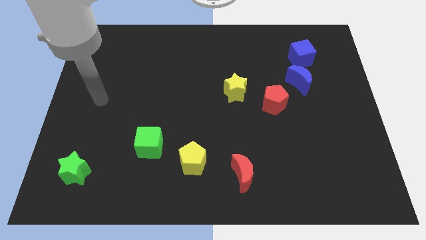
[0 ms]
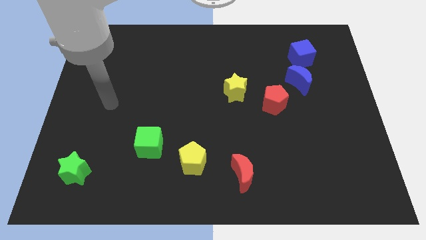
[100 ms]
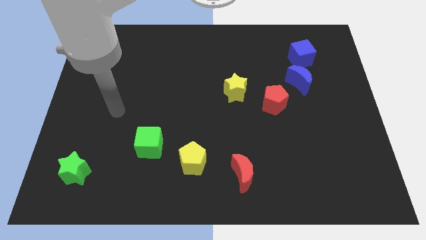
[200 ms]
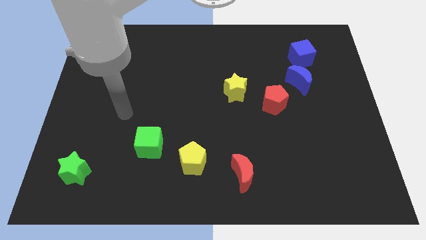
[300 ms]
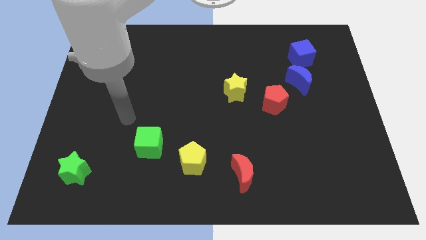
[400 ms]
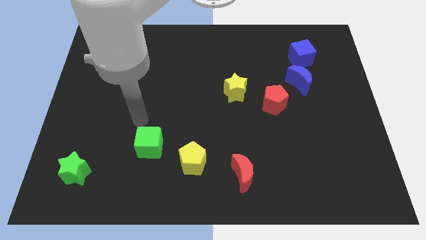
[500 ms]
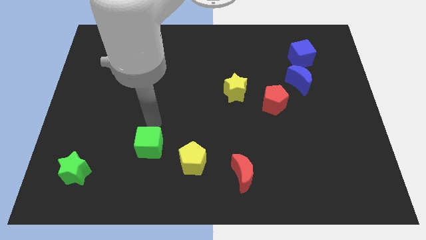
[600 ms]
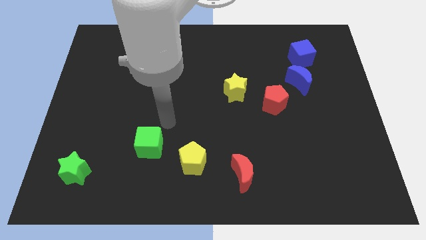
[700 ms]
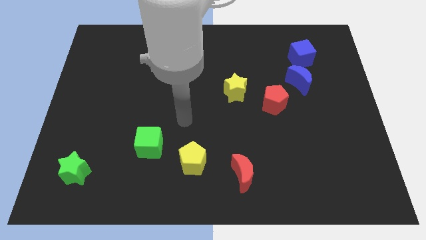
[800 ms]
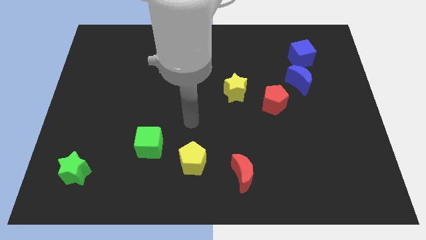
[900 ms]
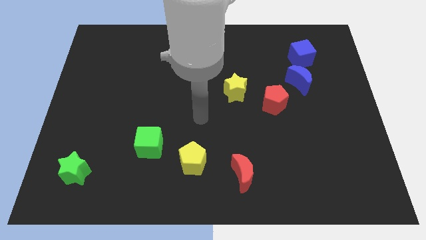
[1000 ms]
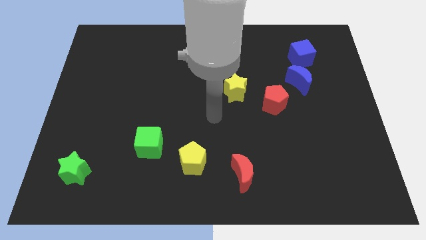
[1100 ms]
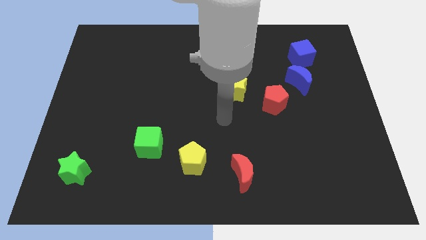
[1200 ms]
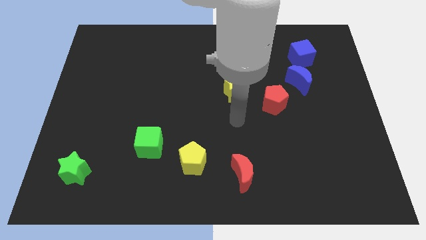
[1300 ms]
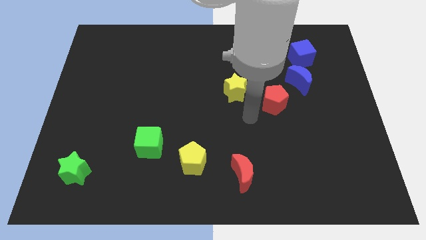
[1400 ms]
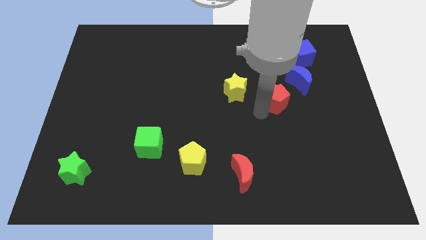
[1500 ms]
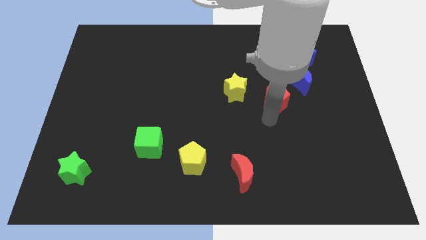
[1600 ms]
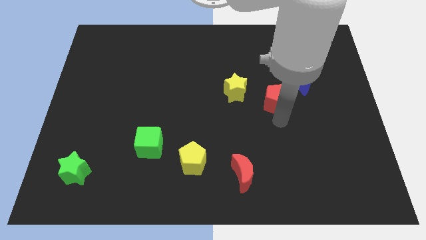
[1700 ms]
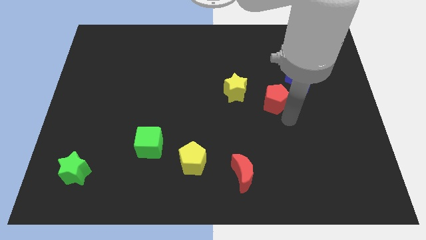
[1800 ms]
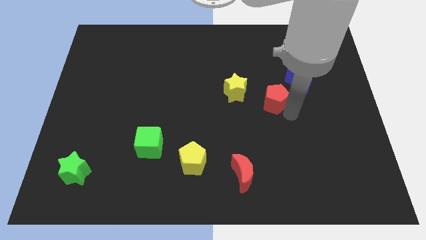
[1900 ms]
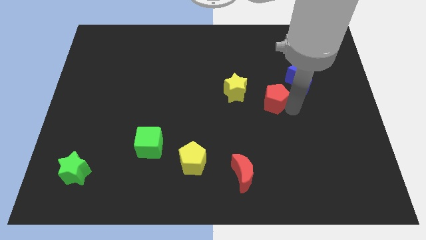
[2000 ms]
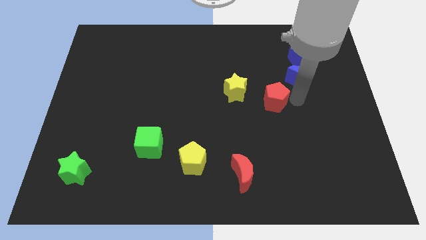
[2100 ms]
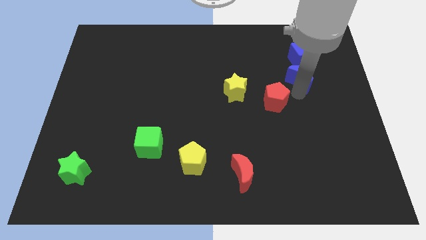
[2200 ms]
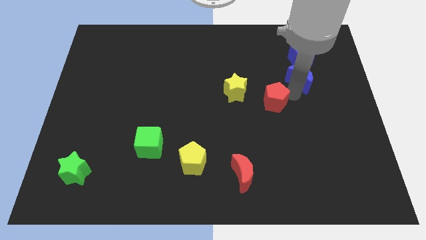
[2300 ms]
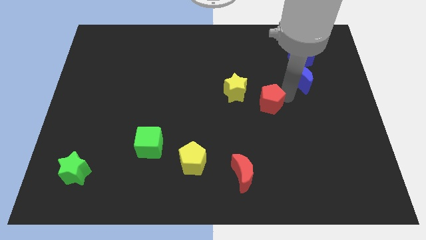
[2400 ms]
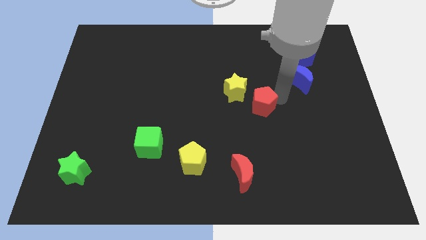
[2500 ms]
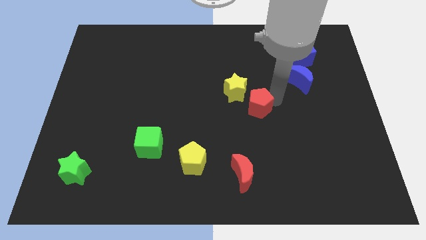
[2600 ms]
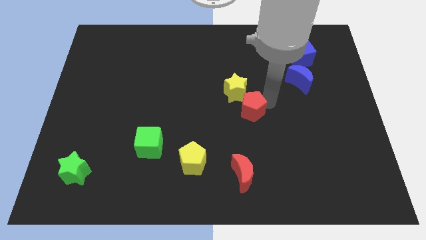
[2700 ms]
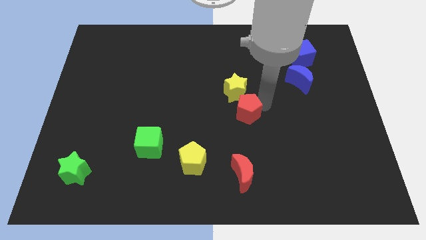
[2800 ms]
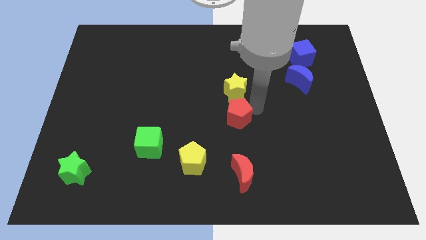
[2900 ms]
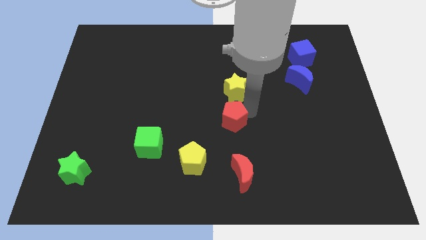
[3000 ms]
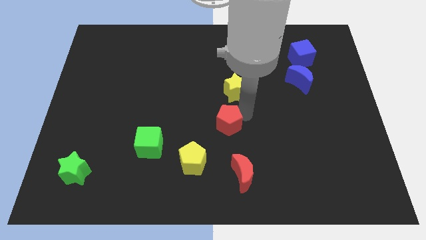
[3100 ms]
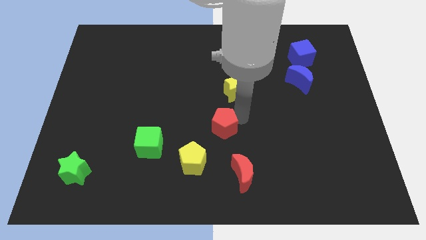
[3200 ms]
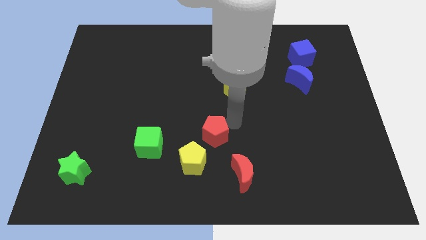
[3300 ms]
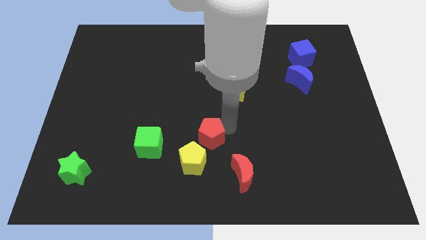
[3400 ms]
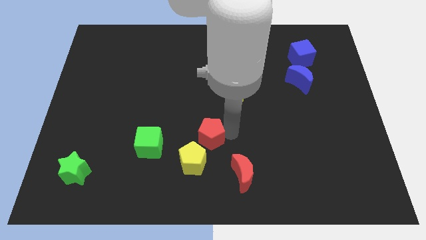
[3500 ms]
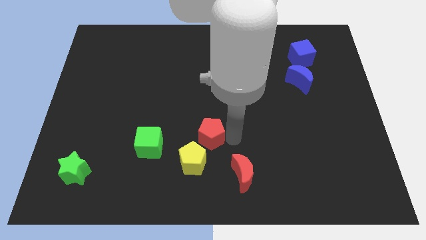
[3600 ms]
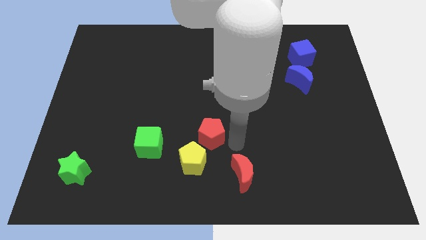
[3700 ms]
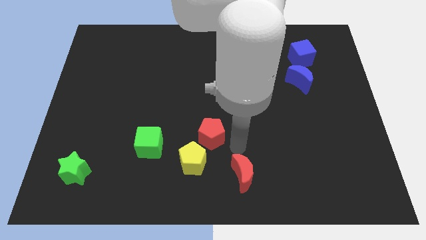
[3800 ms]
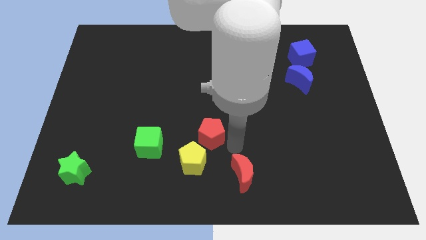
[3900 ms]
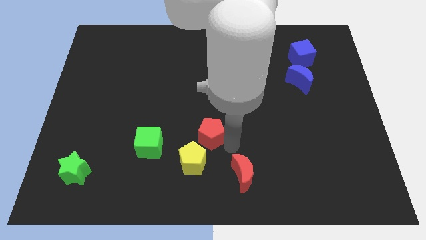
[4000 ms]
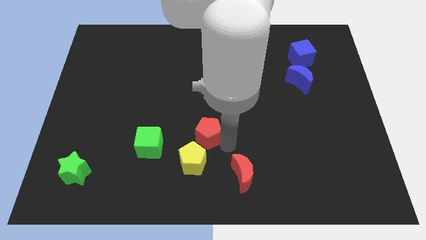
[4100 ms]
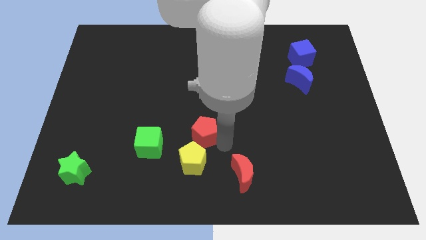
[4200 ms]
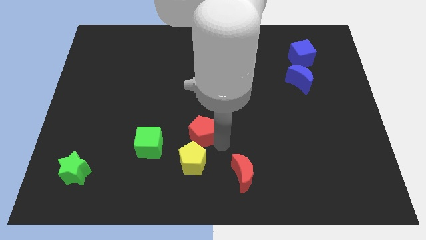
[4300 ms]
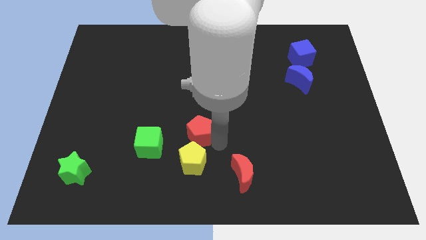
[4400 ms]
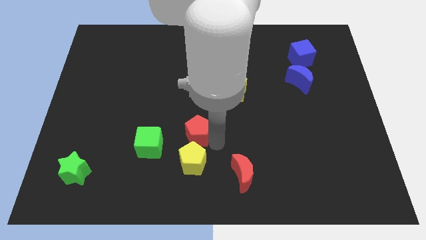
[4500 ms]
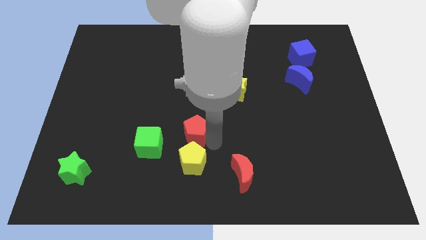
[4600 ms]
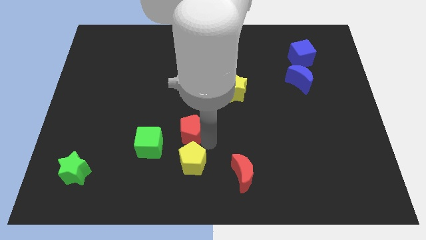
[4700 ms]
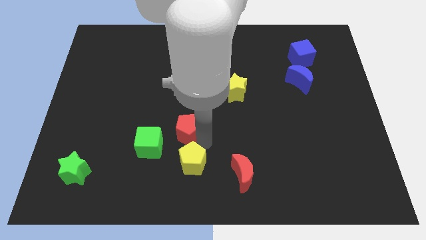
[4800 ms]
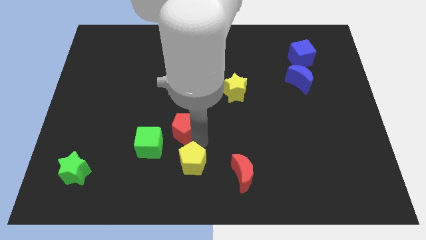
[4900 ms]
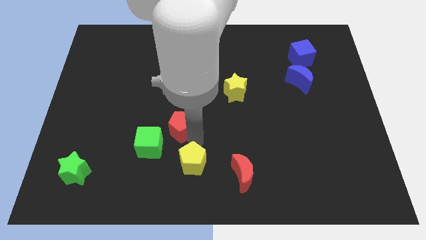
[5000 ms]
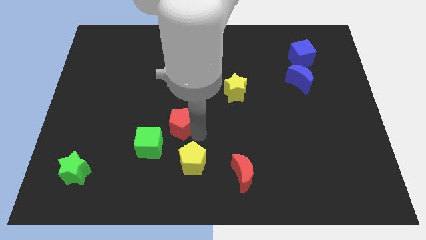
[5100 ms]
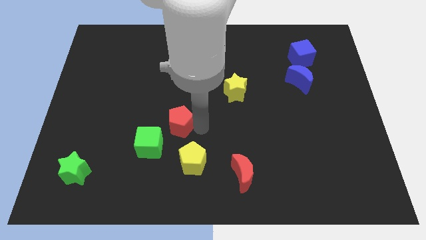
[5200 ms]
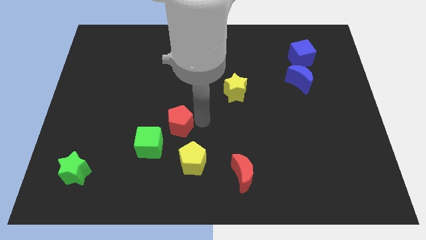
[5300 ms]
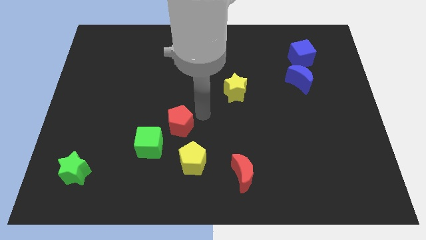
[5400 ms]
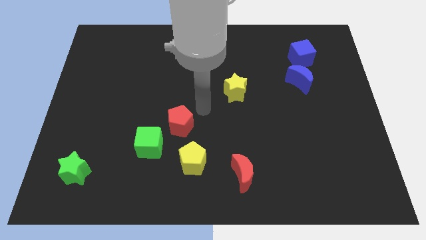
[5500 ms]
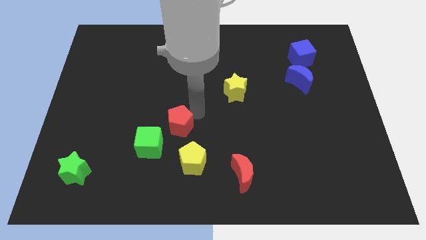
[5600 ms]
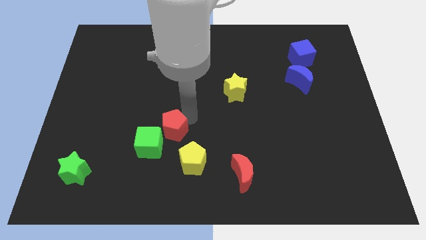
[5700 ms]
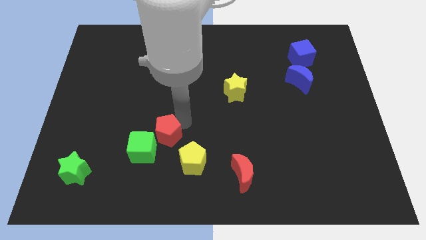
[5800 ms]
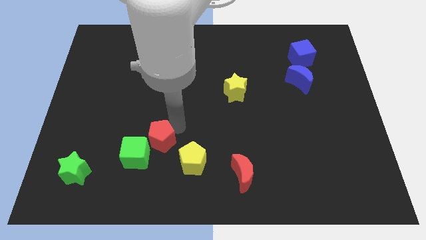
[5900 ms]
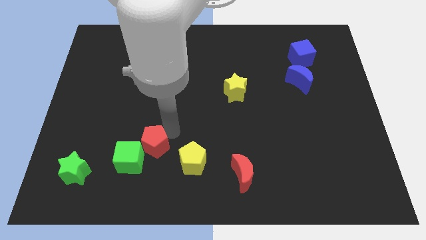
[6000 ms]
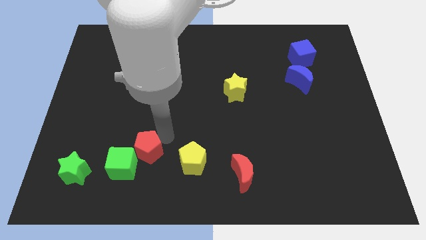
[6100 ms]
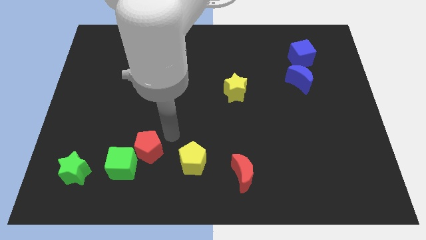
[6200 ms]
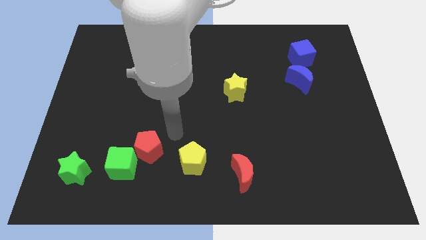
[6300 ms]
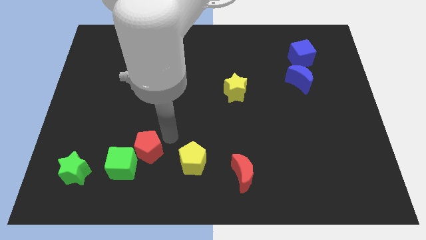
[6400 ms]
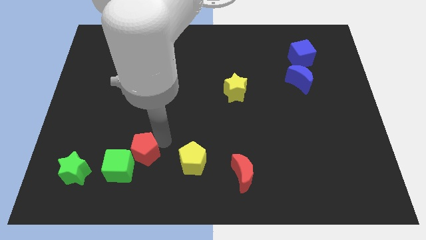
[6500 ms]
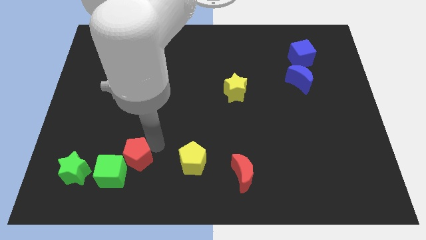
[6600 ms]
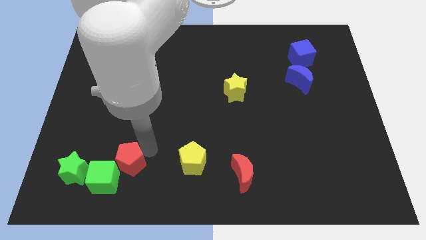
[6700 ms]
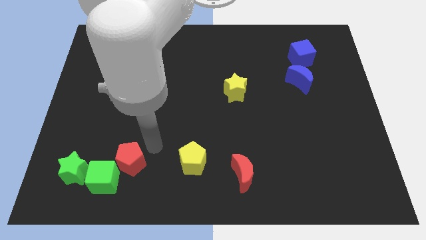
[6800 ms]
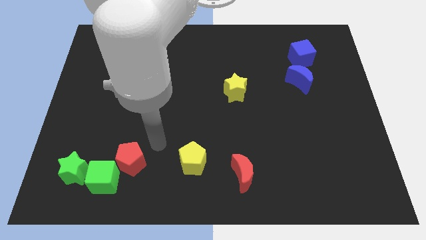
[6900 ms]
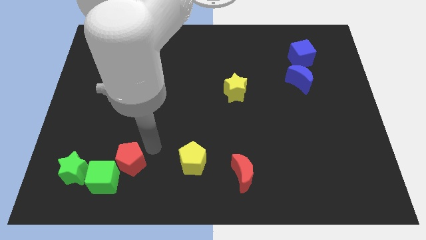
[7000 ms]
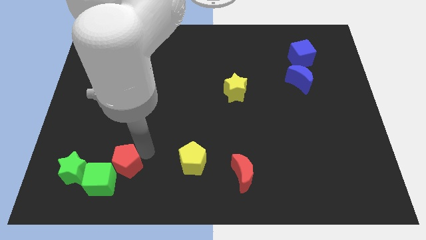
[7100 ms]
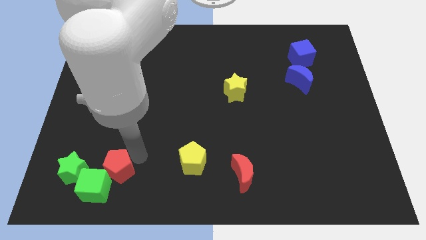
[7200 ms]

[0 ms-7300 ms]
put the red pentagon close to the green cube
